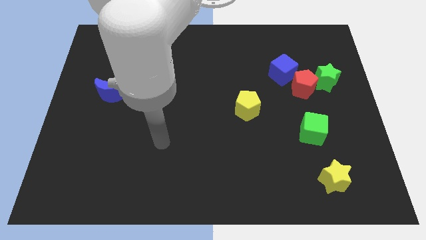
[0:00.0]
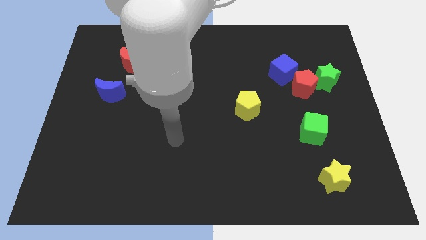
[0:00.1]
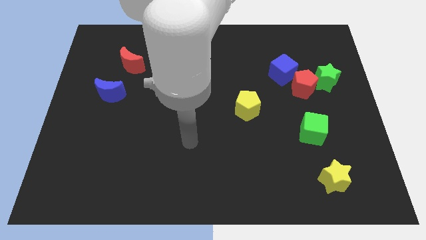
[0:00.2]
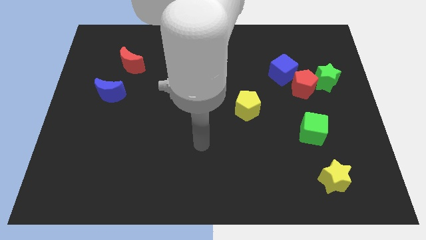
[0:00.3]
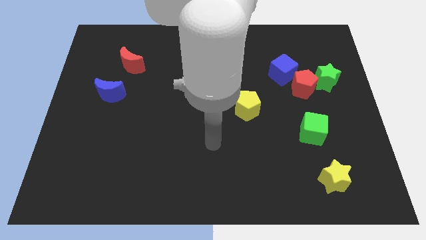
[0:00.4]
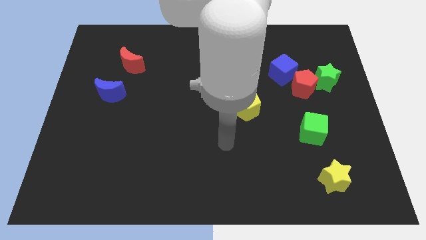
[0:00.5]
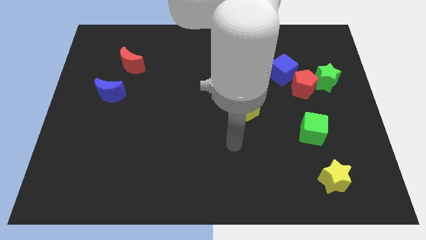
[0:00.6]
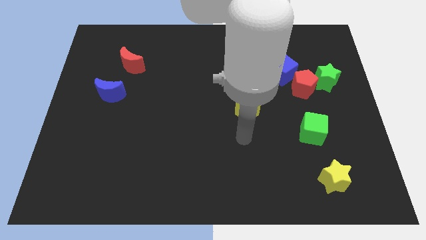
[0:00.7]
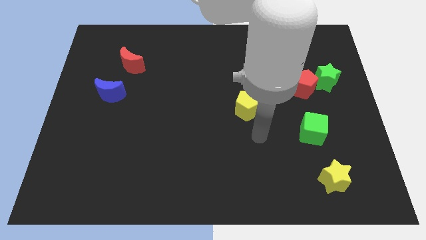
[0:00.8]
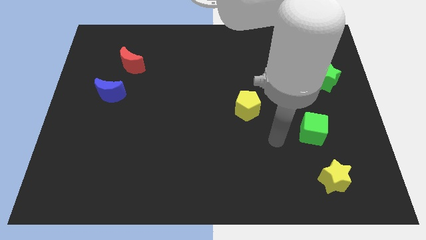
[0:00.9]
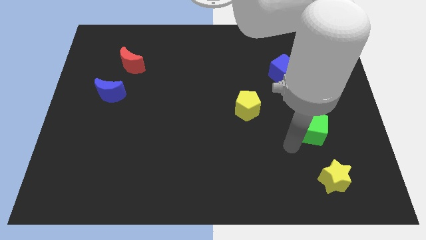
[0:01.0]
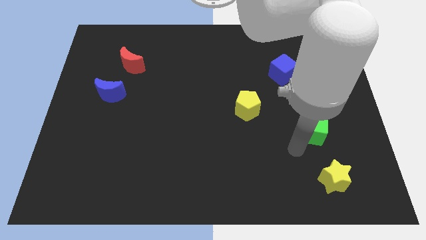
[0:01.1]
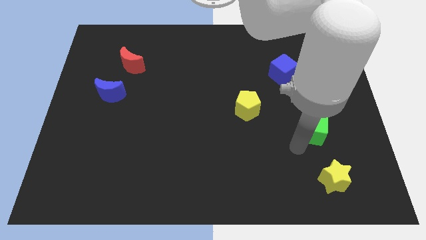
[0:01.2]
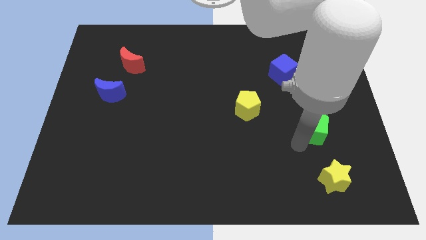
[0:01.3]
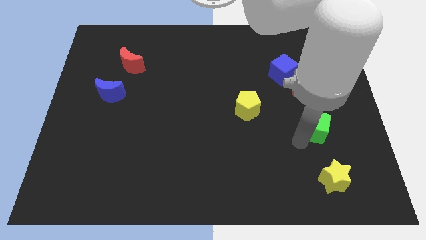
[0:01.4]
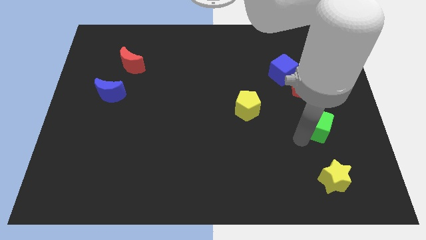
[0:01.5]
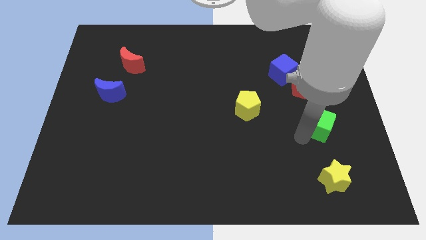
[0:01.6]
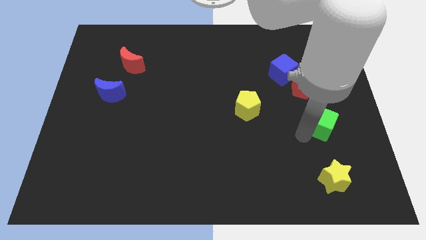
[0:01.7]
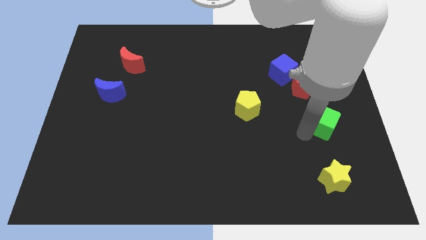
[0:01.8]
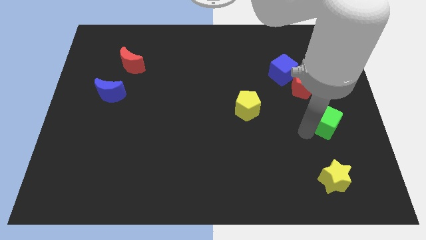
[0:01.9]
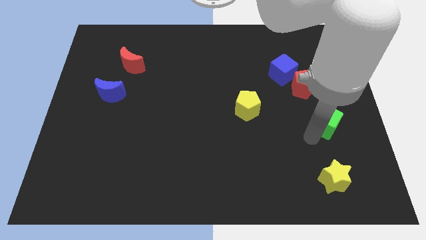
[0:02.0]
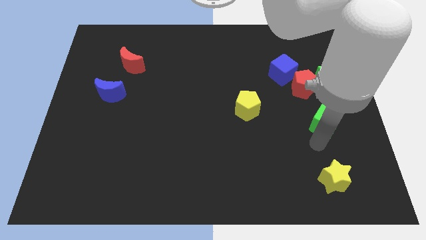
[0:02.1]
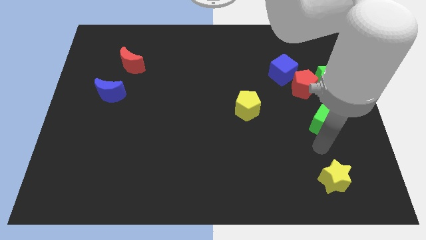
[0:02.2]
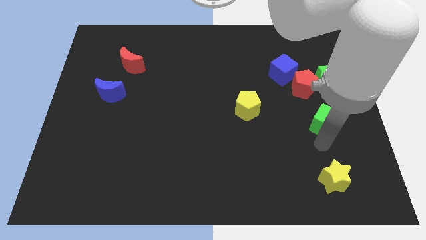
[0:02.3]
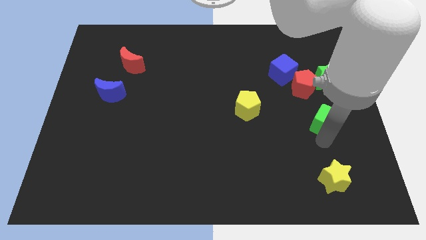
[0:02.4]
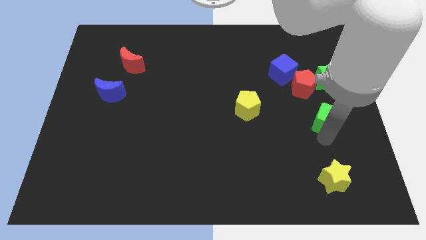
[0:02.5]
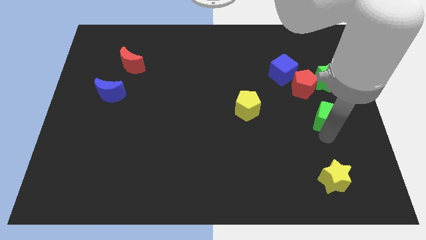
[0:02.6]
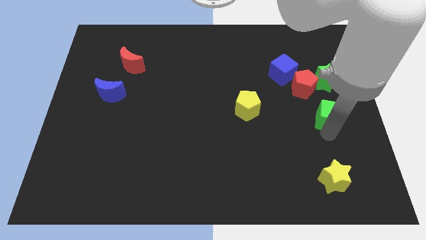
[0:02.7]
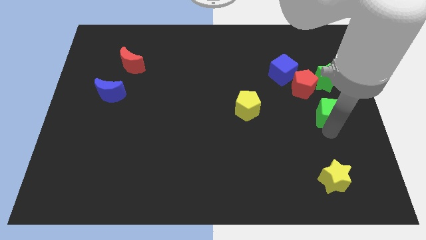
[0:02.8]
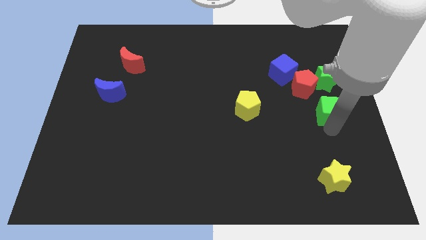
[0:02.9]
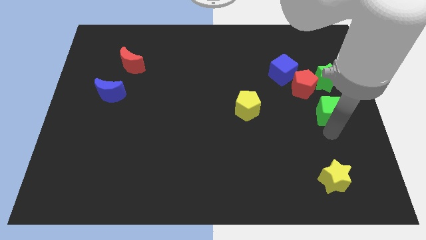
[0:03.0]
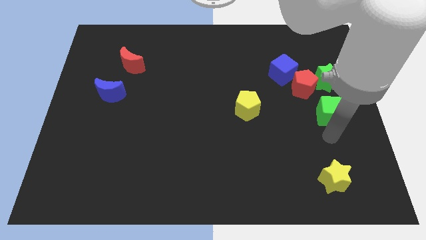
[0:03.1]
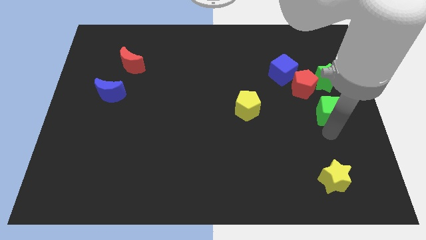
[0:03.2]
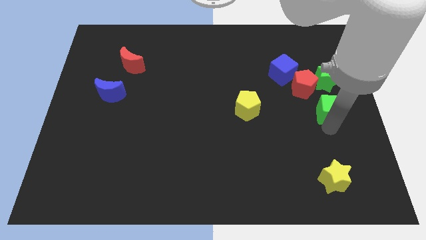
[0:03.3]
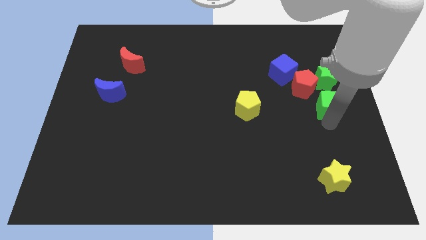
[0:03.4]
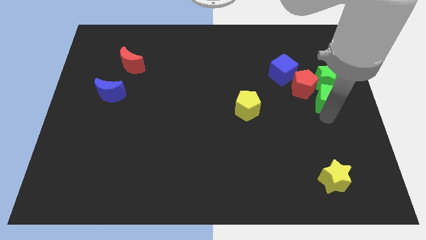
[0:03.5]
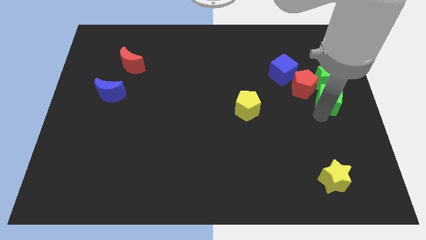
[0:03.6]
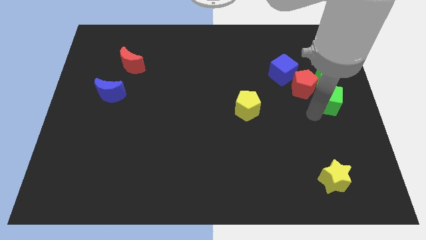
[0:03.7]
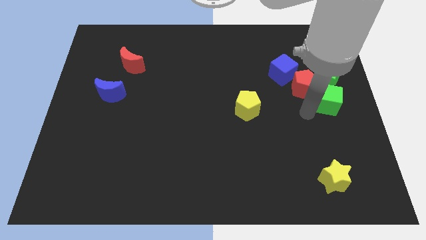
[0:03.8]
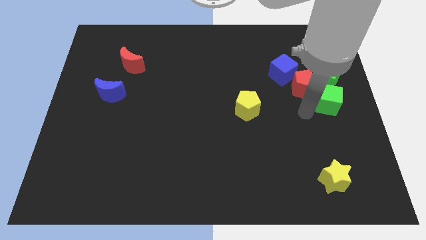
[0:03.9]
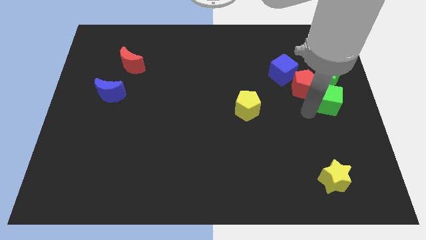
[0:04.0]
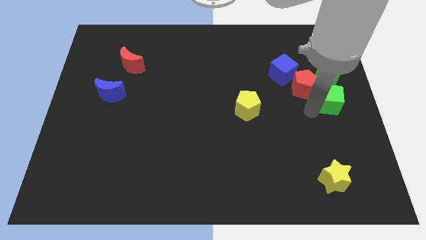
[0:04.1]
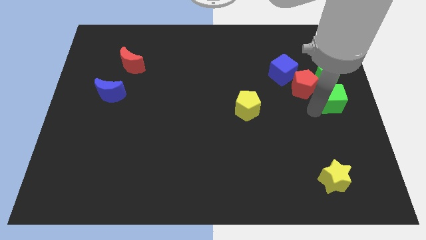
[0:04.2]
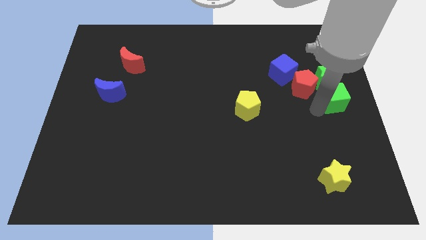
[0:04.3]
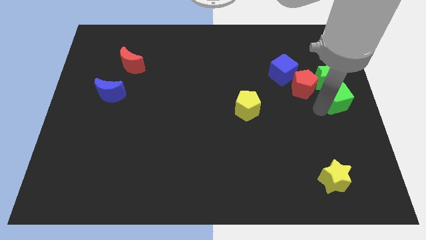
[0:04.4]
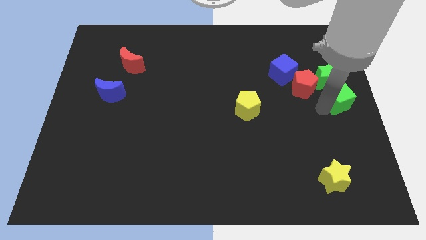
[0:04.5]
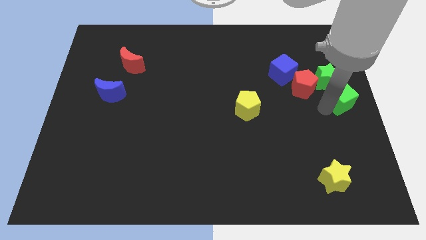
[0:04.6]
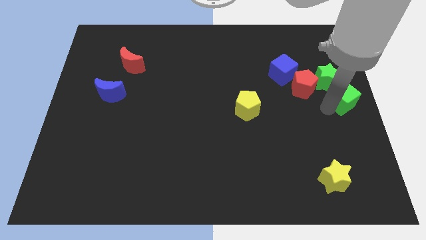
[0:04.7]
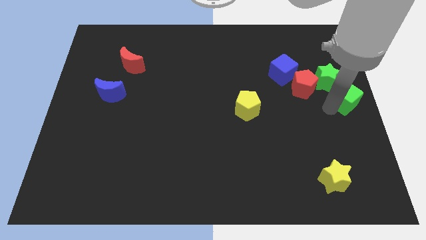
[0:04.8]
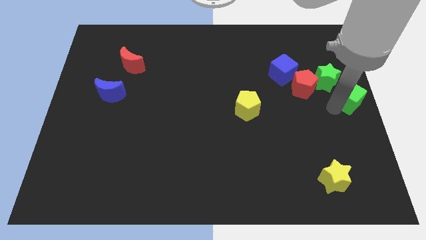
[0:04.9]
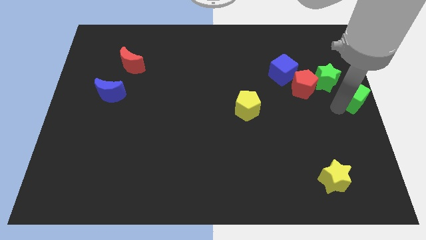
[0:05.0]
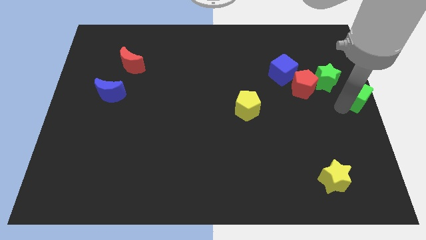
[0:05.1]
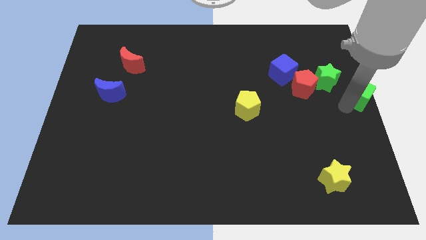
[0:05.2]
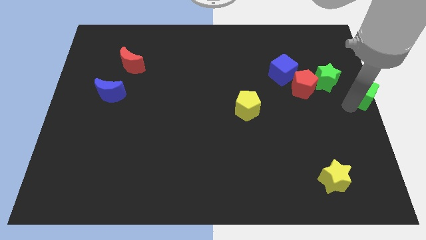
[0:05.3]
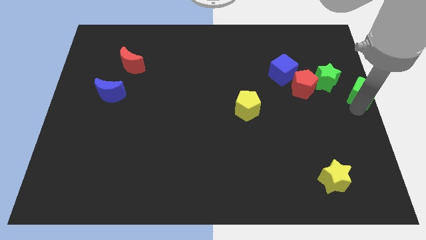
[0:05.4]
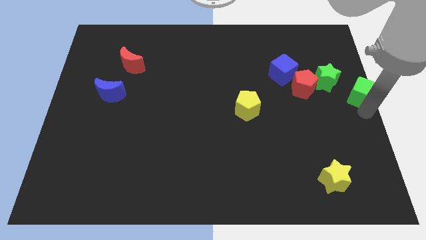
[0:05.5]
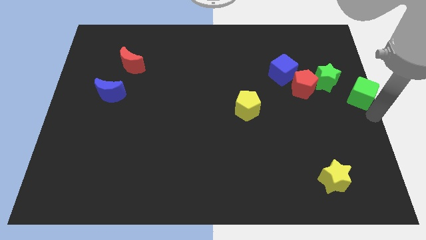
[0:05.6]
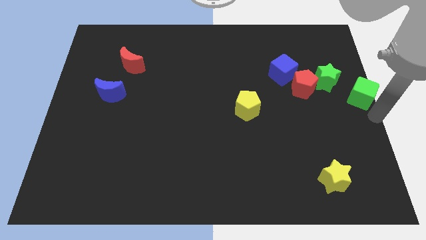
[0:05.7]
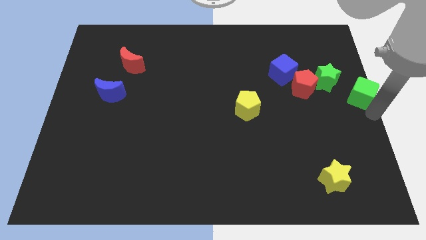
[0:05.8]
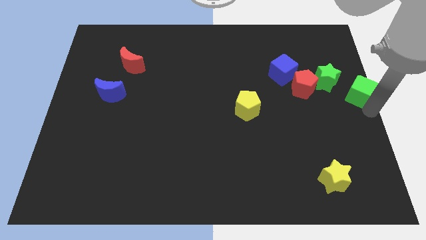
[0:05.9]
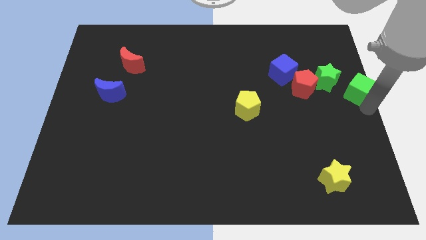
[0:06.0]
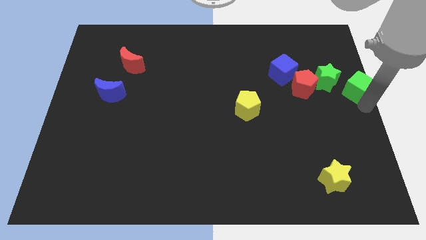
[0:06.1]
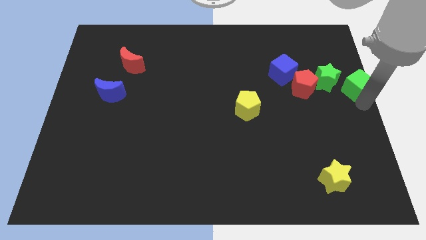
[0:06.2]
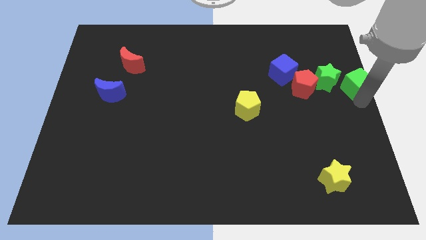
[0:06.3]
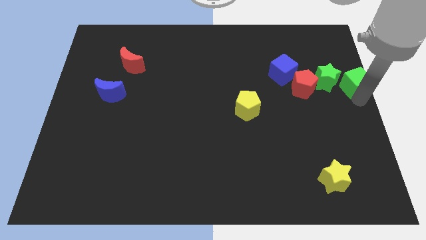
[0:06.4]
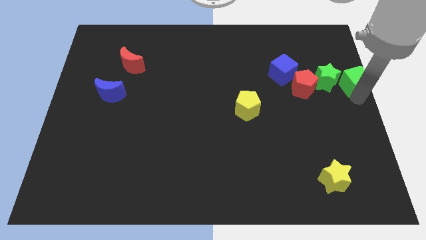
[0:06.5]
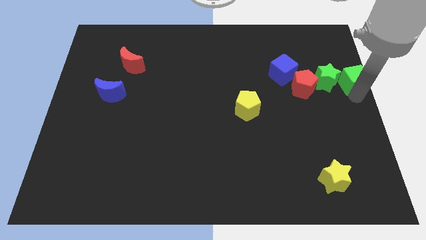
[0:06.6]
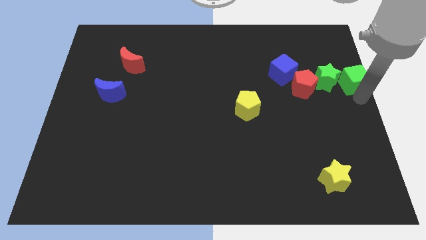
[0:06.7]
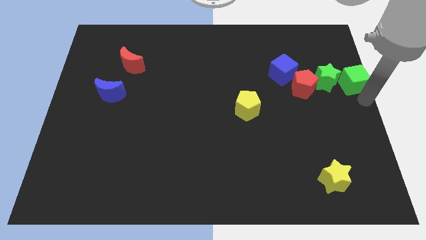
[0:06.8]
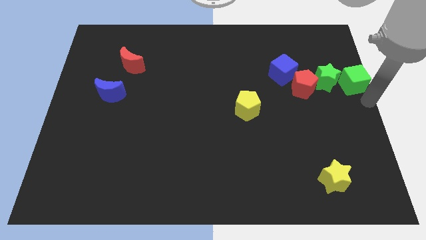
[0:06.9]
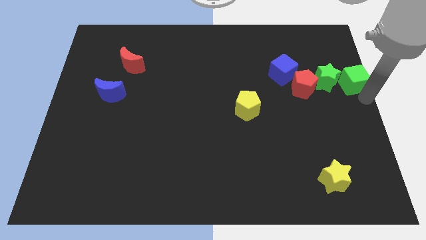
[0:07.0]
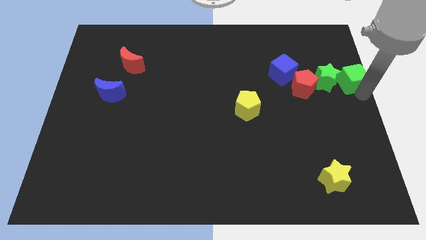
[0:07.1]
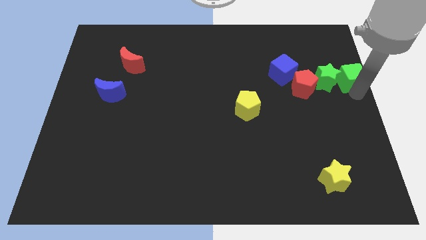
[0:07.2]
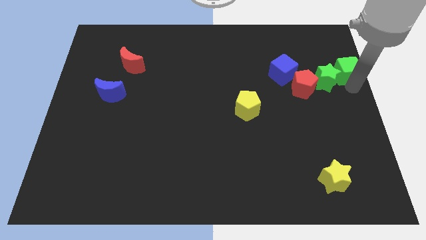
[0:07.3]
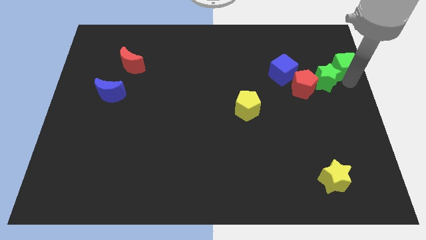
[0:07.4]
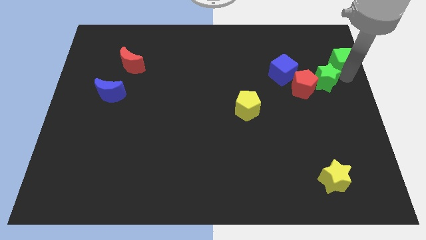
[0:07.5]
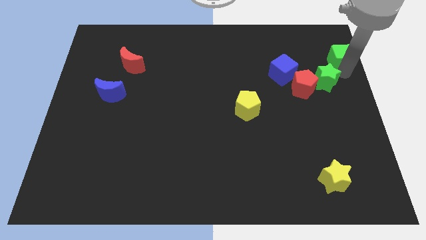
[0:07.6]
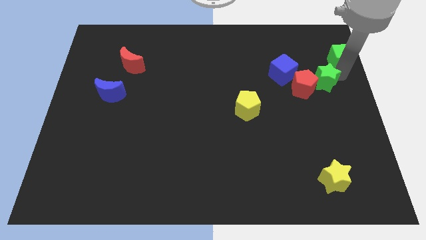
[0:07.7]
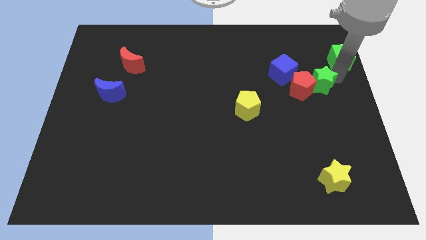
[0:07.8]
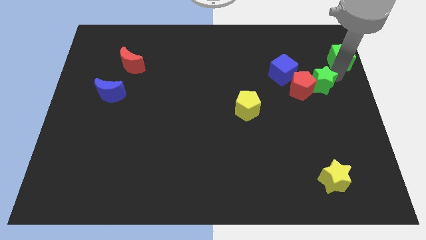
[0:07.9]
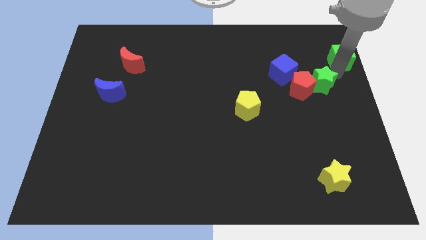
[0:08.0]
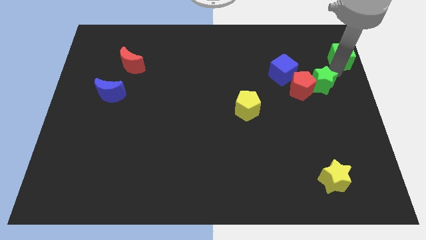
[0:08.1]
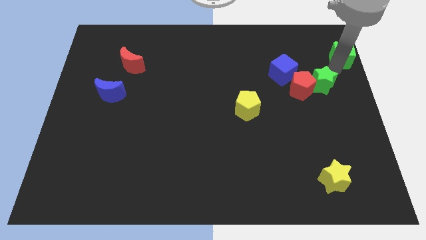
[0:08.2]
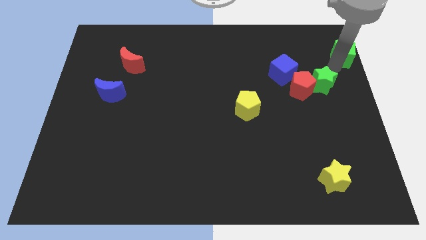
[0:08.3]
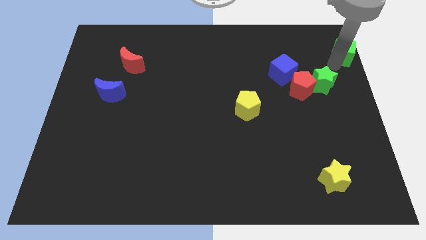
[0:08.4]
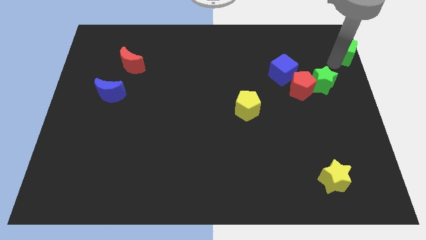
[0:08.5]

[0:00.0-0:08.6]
move the green cube to the upper right corner
